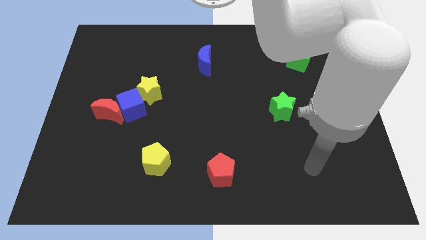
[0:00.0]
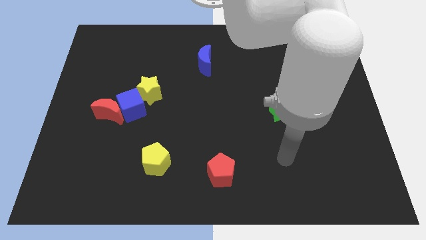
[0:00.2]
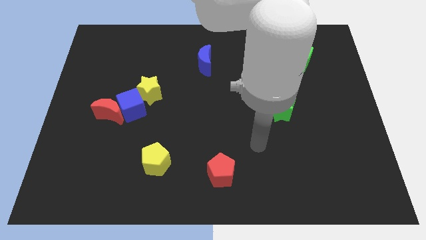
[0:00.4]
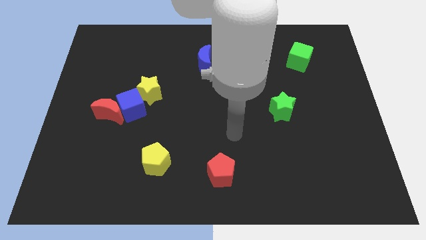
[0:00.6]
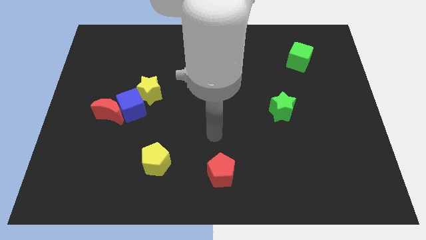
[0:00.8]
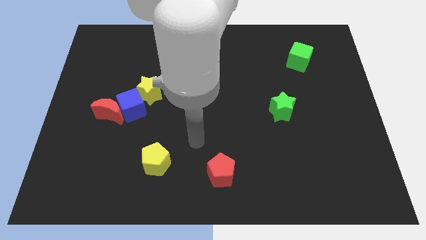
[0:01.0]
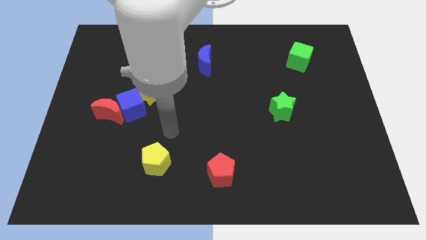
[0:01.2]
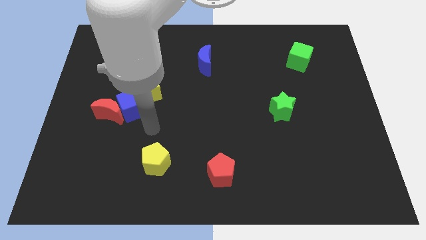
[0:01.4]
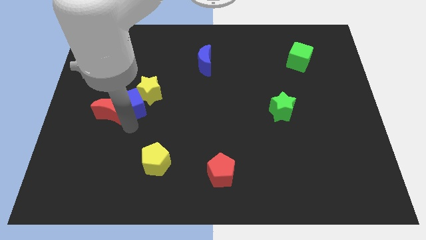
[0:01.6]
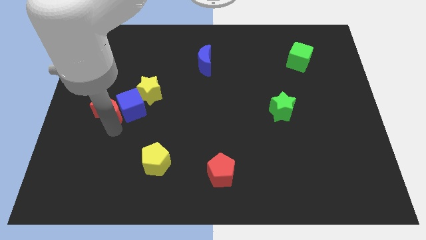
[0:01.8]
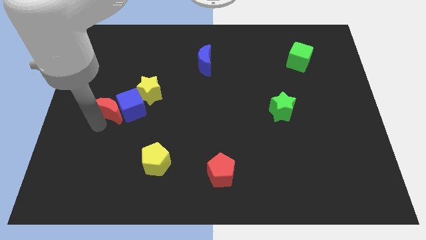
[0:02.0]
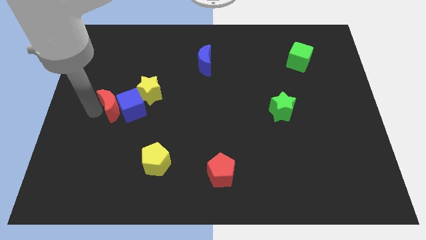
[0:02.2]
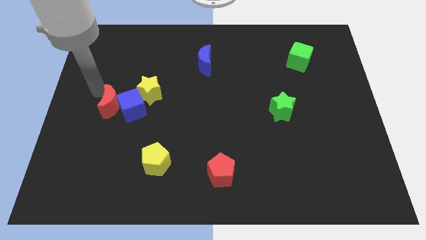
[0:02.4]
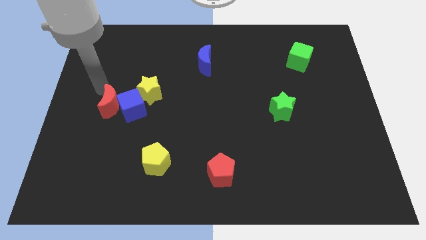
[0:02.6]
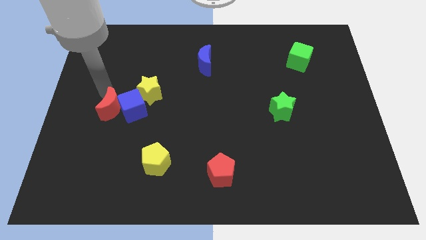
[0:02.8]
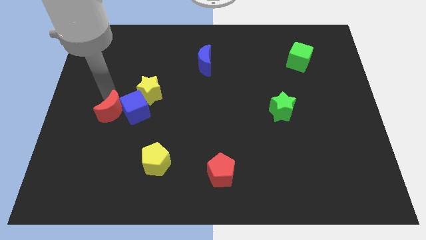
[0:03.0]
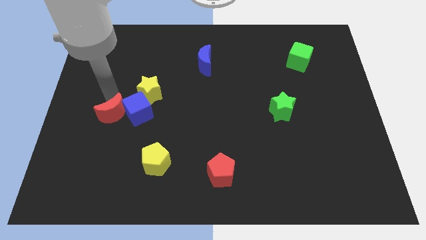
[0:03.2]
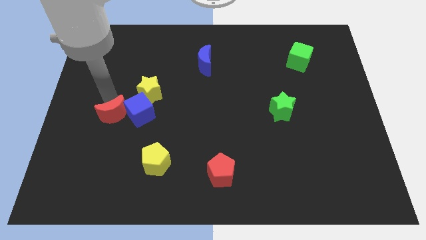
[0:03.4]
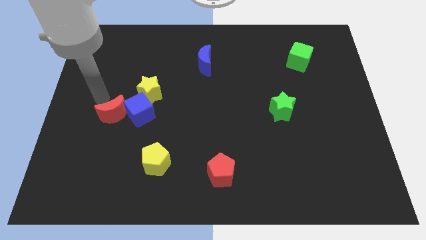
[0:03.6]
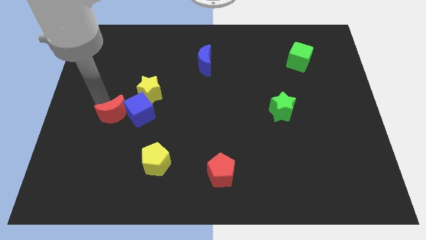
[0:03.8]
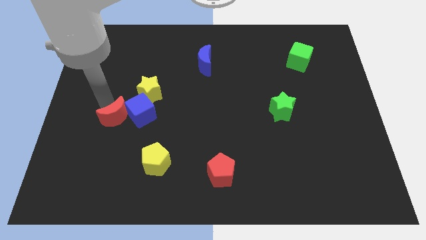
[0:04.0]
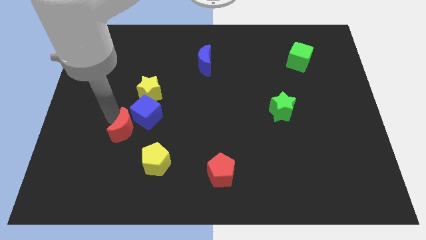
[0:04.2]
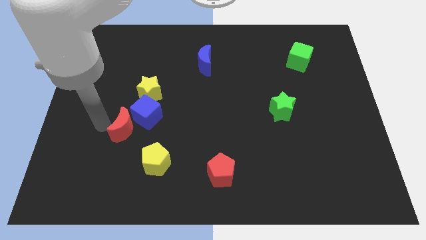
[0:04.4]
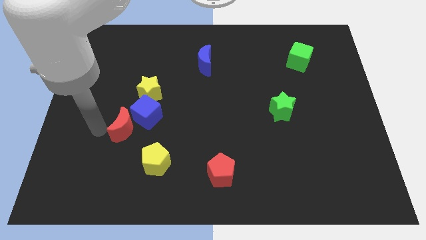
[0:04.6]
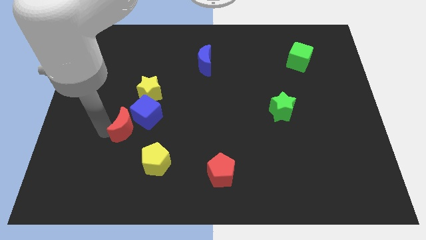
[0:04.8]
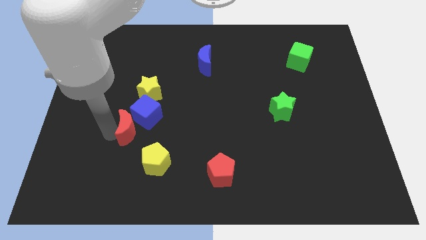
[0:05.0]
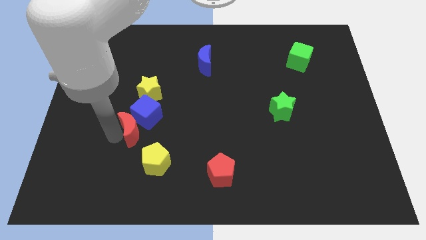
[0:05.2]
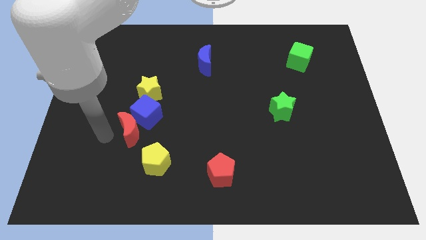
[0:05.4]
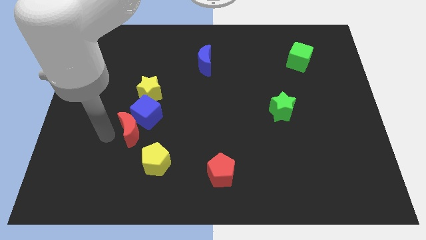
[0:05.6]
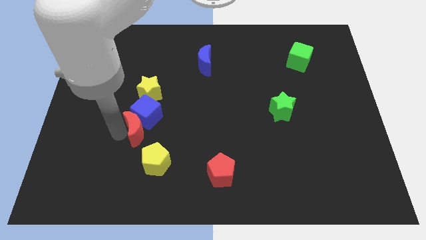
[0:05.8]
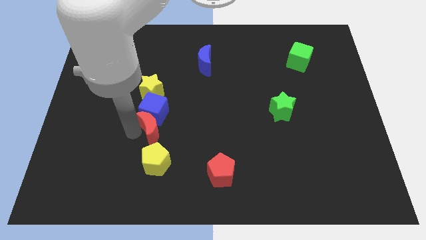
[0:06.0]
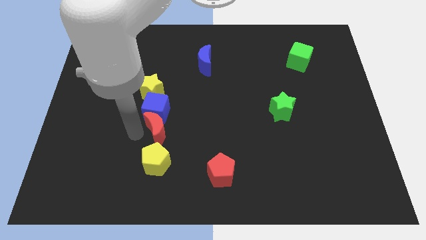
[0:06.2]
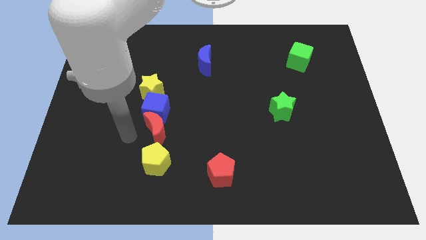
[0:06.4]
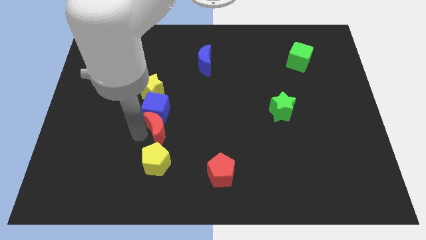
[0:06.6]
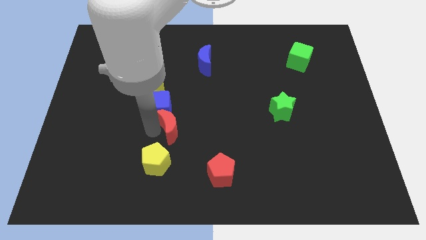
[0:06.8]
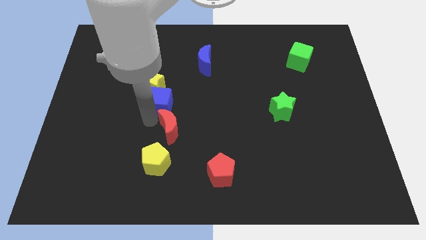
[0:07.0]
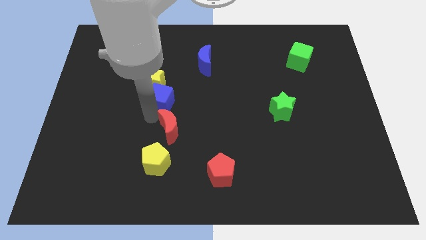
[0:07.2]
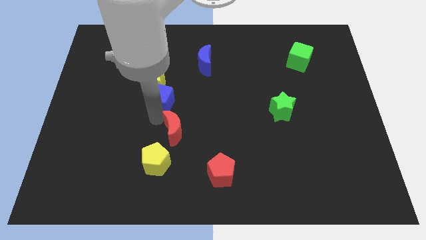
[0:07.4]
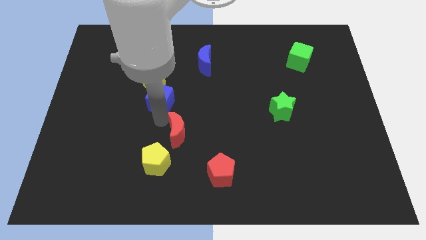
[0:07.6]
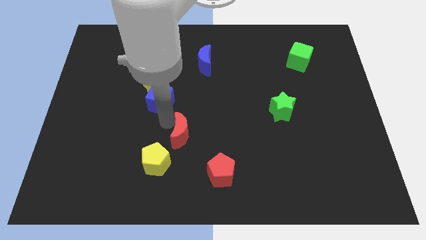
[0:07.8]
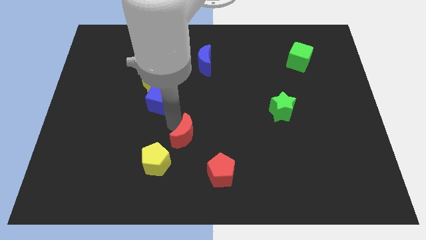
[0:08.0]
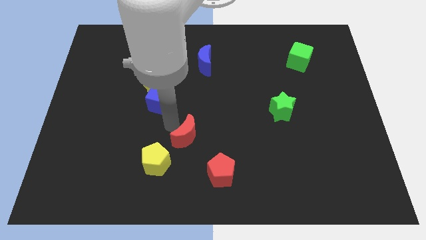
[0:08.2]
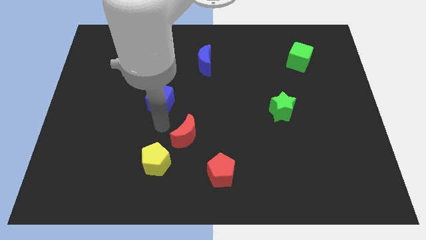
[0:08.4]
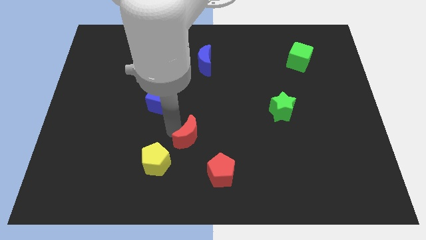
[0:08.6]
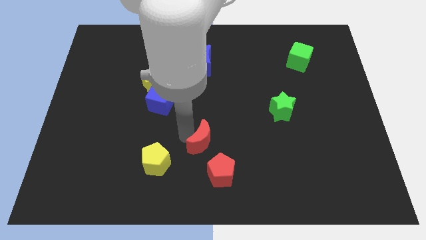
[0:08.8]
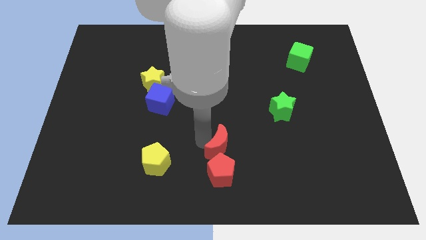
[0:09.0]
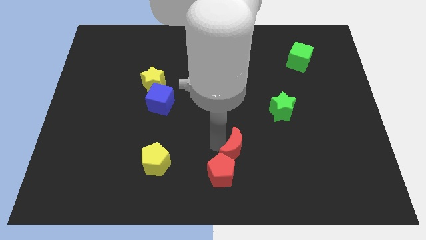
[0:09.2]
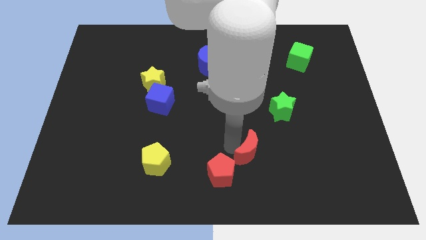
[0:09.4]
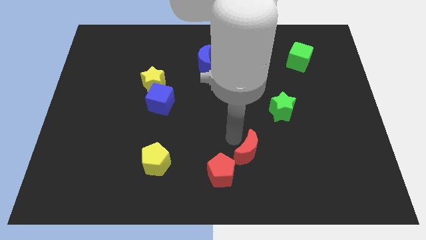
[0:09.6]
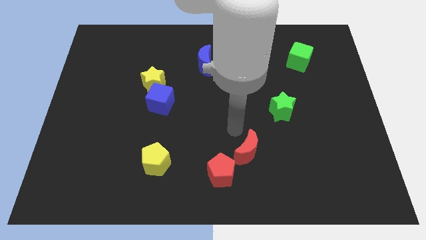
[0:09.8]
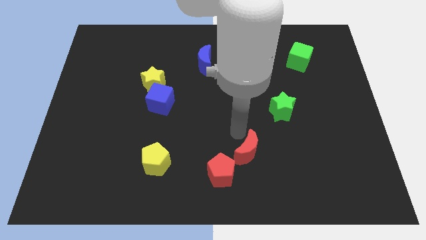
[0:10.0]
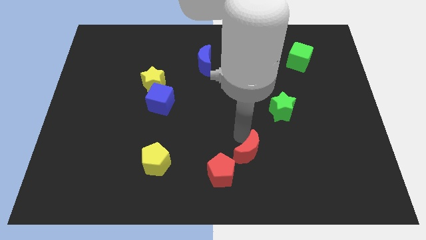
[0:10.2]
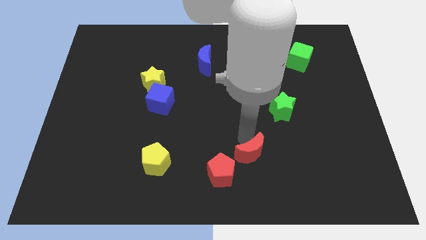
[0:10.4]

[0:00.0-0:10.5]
push the red moon just right of the red pentagon

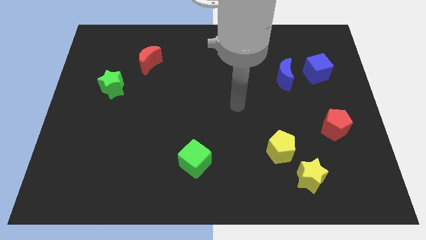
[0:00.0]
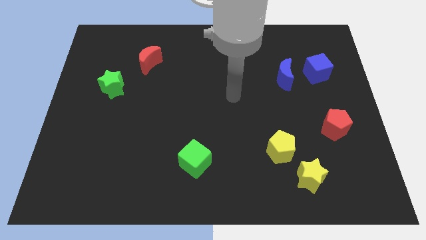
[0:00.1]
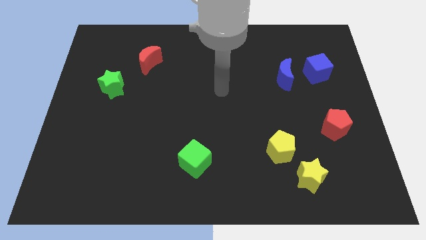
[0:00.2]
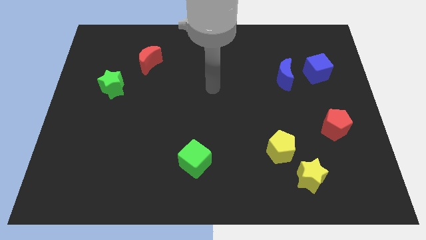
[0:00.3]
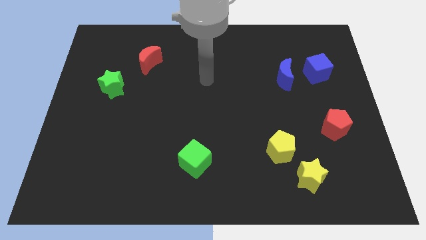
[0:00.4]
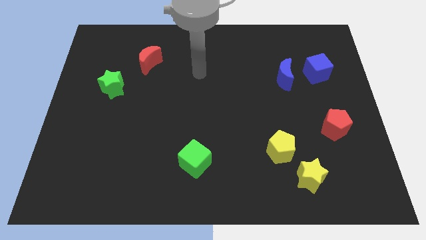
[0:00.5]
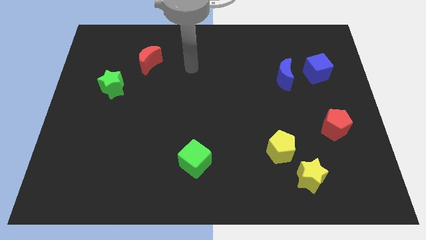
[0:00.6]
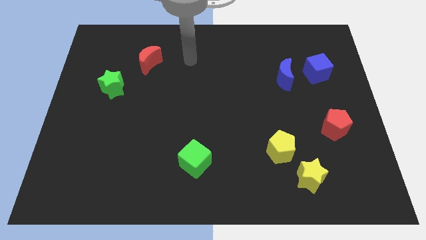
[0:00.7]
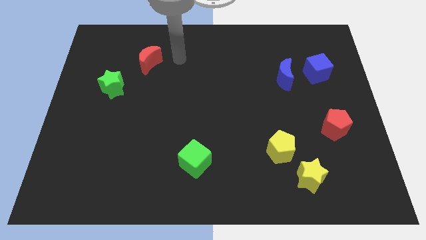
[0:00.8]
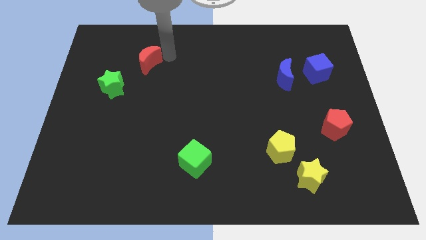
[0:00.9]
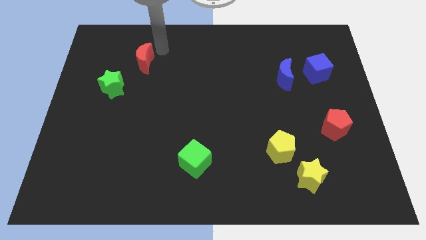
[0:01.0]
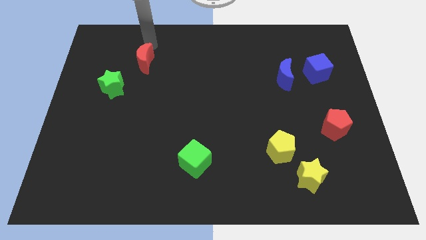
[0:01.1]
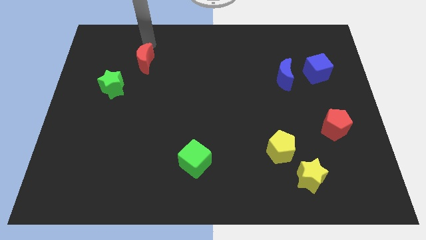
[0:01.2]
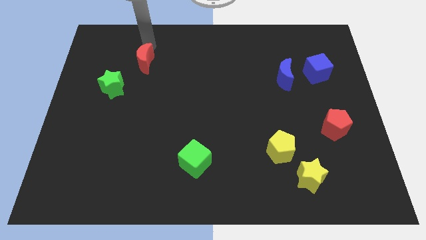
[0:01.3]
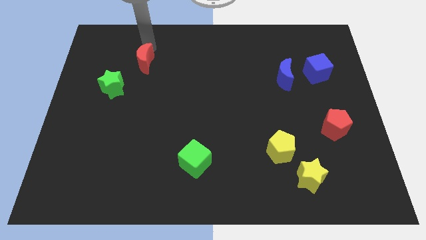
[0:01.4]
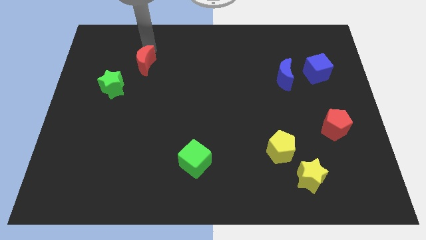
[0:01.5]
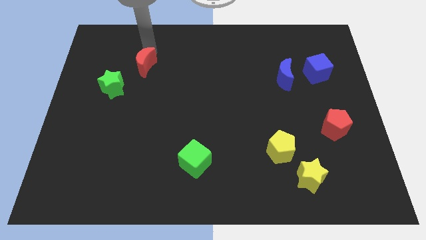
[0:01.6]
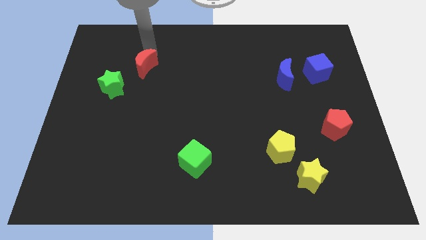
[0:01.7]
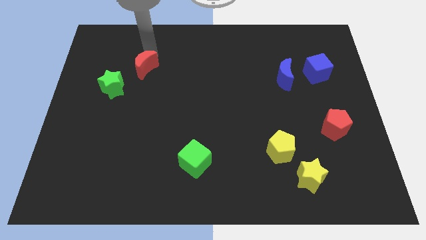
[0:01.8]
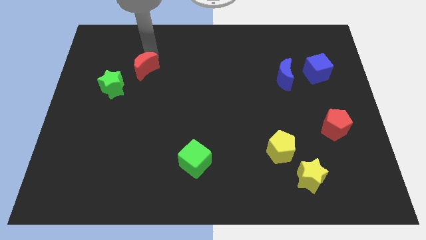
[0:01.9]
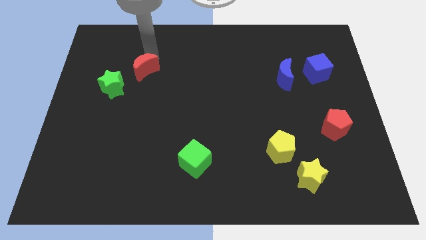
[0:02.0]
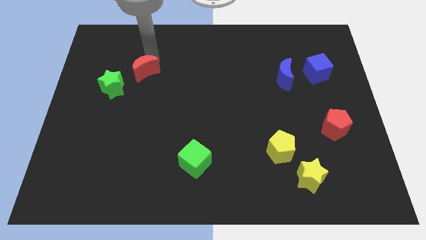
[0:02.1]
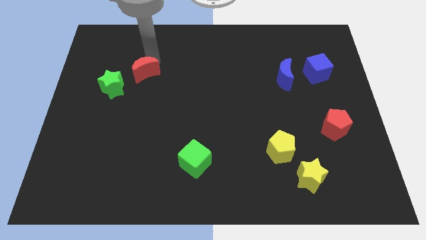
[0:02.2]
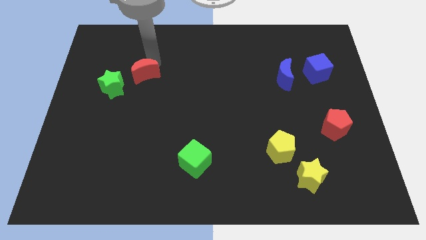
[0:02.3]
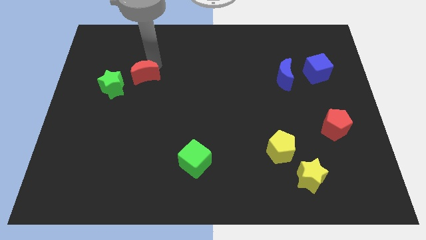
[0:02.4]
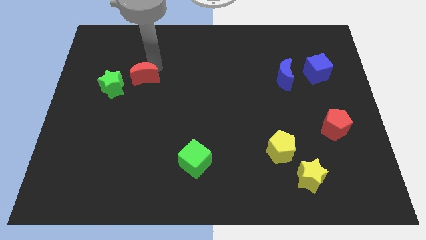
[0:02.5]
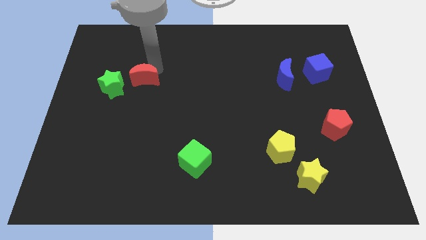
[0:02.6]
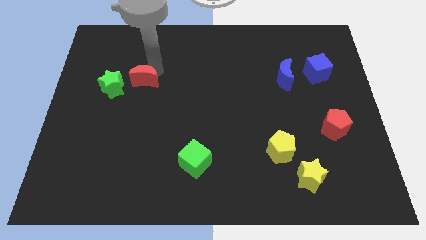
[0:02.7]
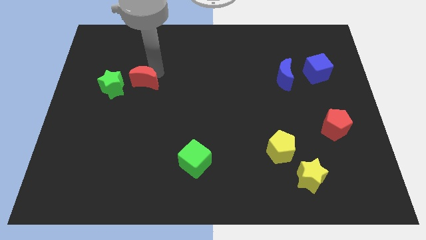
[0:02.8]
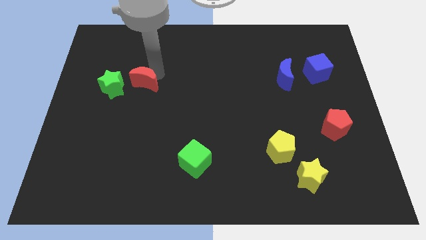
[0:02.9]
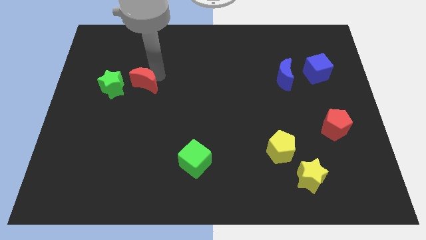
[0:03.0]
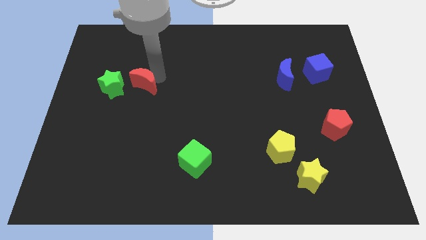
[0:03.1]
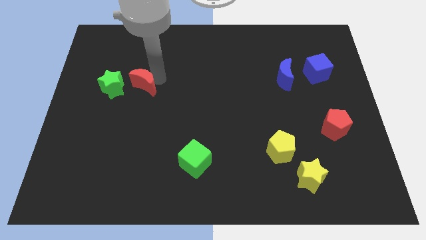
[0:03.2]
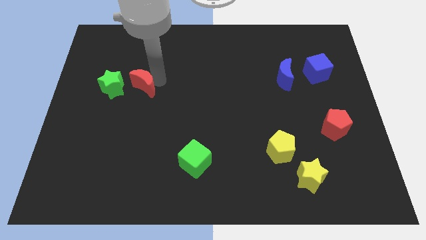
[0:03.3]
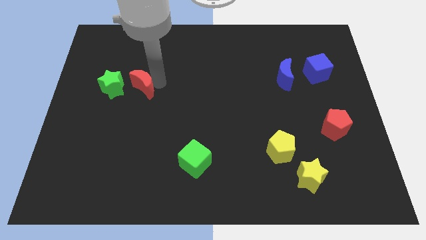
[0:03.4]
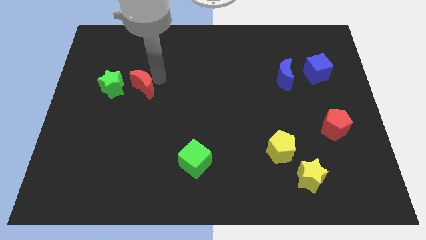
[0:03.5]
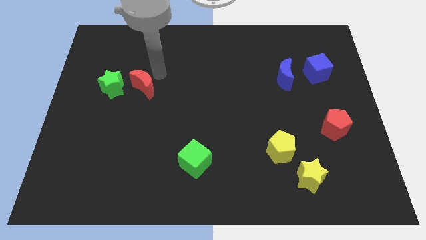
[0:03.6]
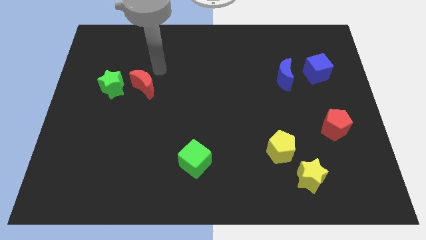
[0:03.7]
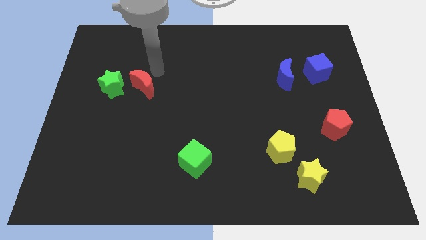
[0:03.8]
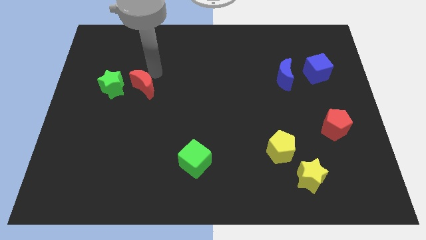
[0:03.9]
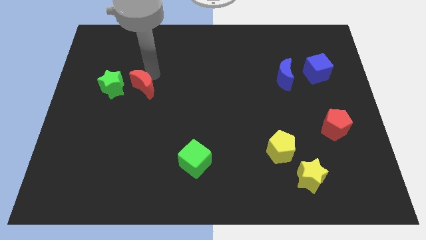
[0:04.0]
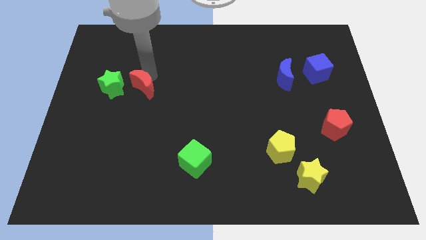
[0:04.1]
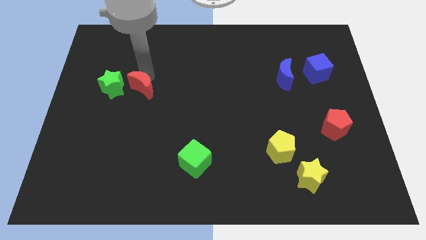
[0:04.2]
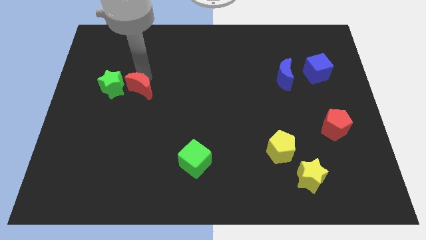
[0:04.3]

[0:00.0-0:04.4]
put the red moon to the bottom right side of the green star
